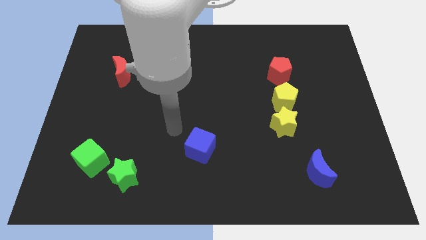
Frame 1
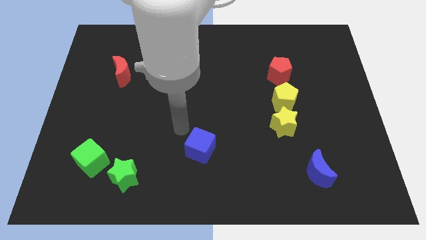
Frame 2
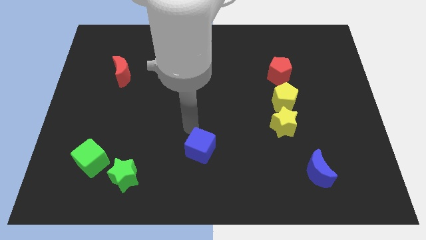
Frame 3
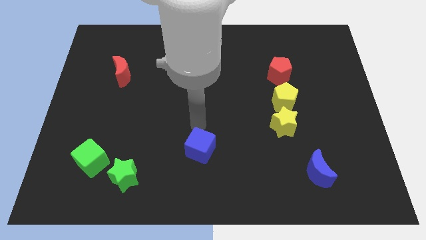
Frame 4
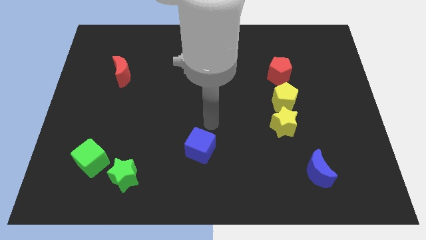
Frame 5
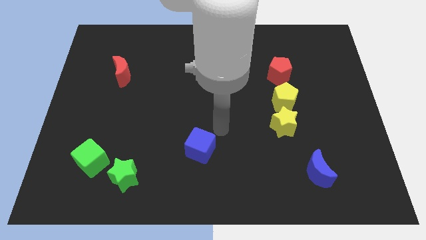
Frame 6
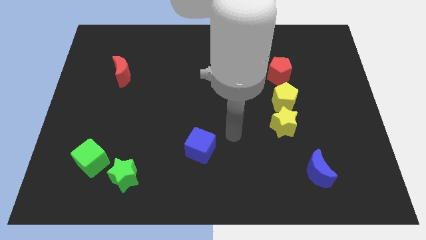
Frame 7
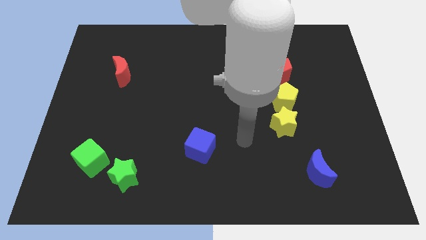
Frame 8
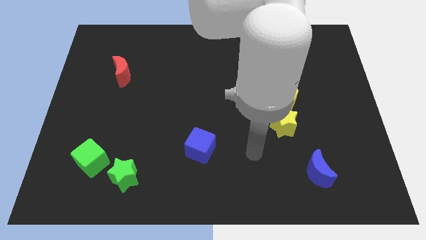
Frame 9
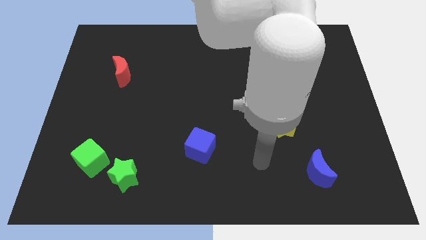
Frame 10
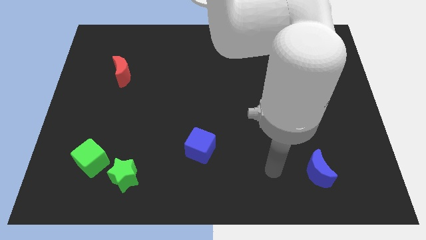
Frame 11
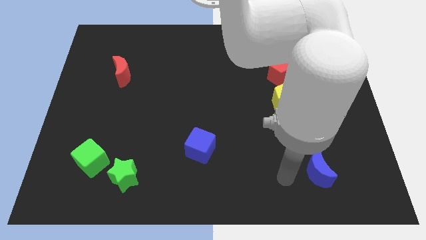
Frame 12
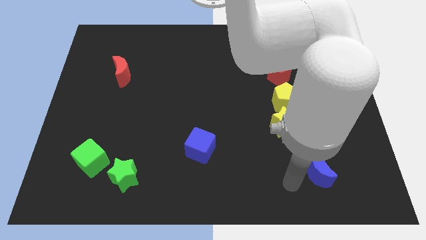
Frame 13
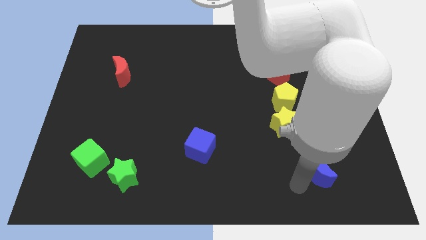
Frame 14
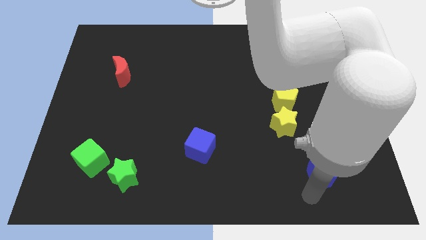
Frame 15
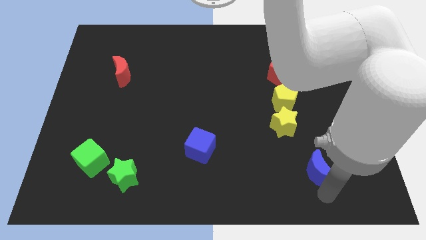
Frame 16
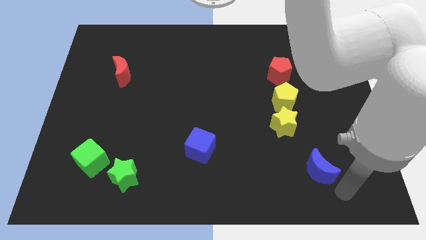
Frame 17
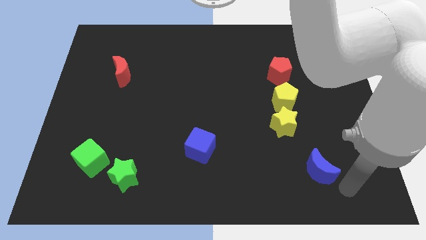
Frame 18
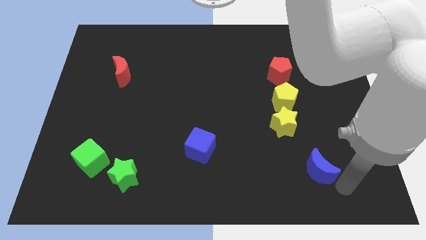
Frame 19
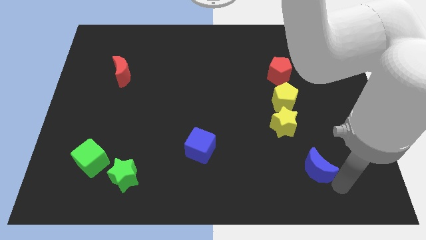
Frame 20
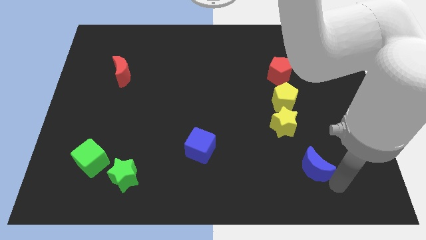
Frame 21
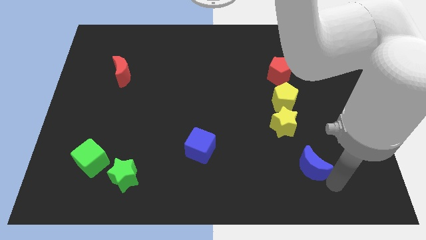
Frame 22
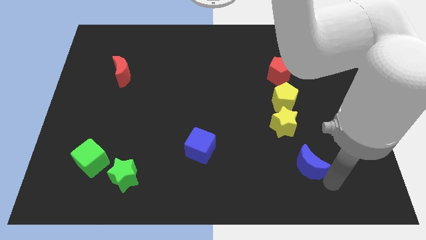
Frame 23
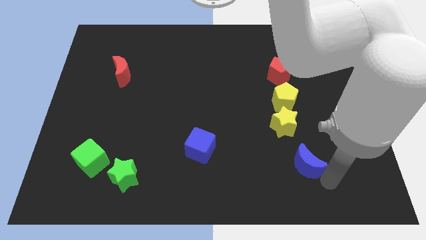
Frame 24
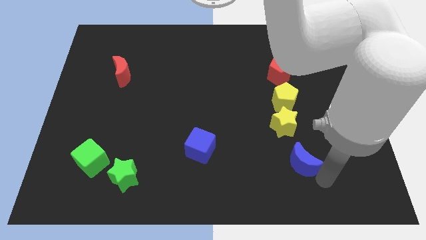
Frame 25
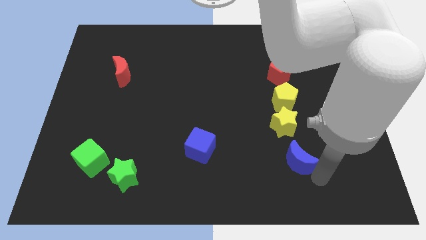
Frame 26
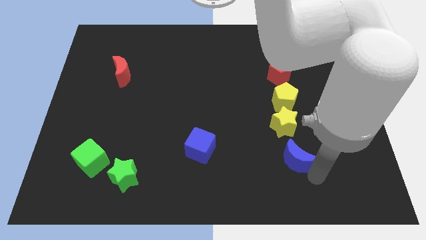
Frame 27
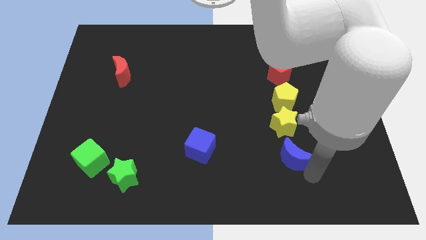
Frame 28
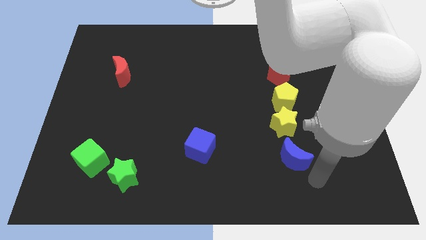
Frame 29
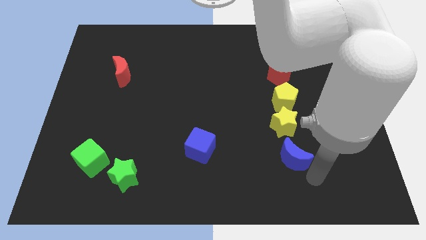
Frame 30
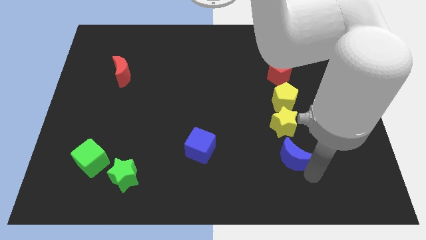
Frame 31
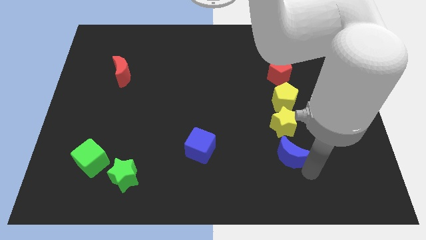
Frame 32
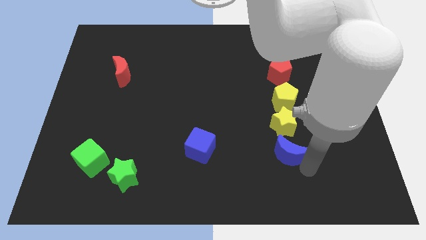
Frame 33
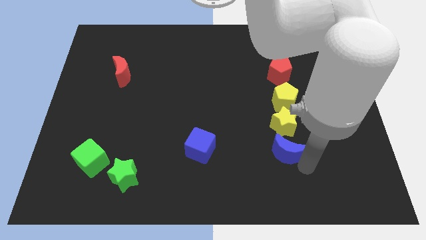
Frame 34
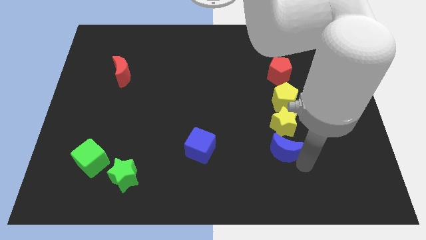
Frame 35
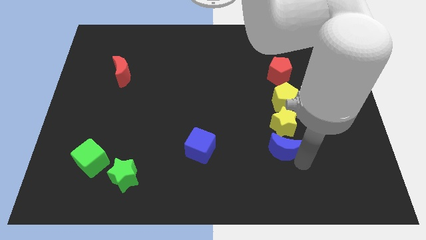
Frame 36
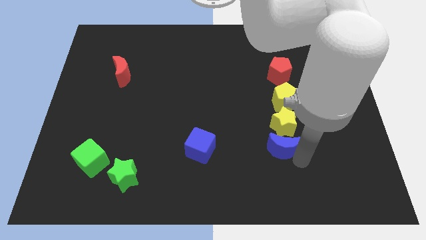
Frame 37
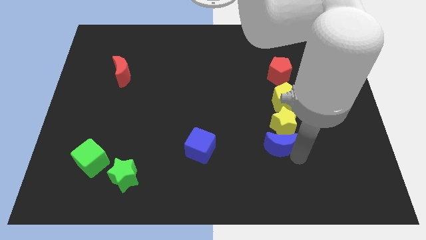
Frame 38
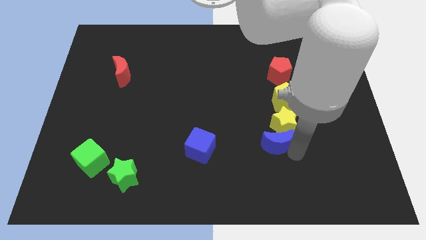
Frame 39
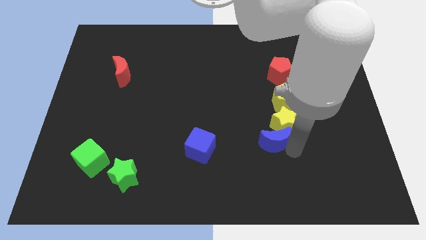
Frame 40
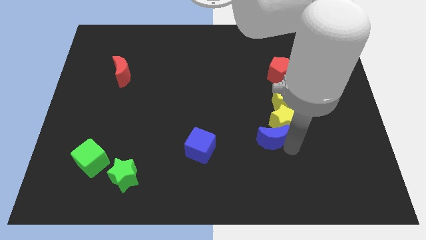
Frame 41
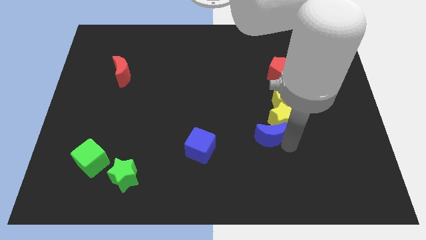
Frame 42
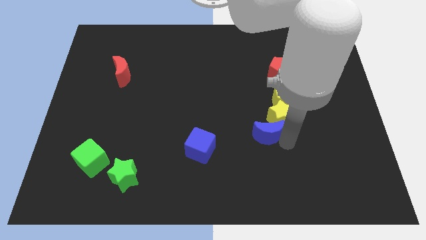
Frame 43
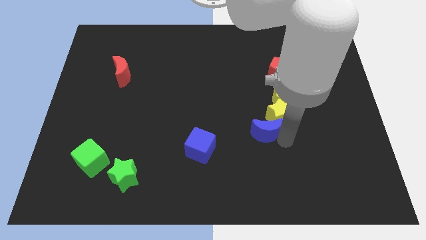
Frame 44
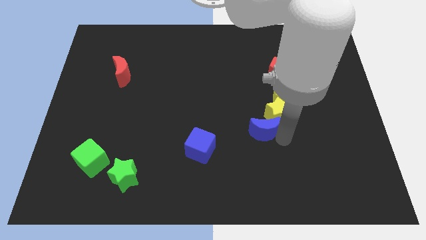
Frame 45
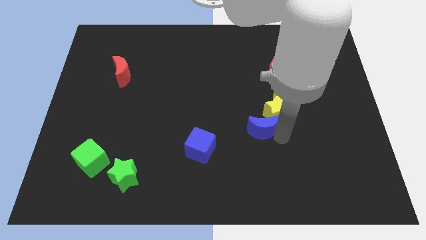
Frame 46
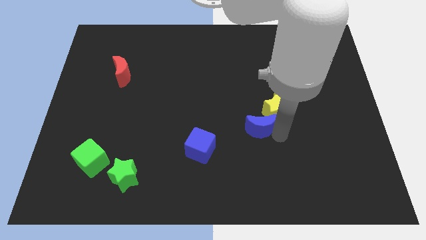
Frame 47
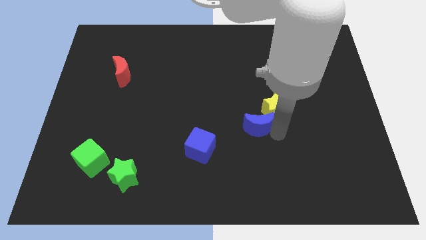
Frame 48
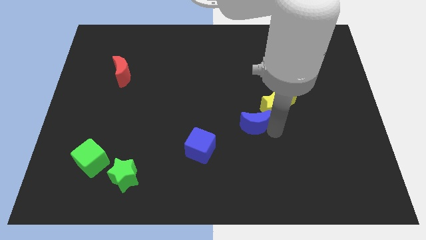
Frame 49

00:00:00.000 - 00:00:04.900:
slide the blue moon to the middle

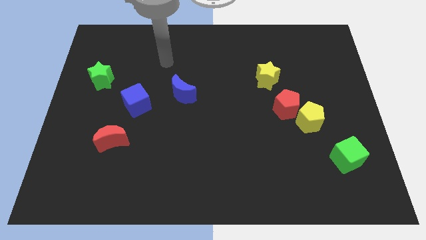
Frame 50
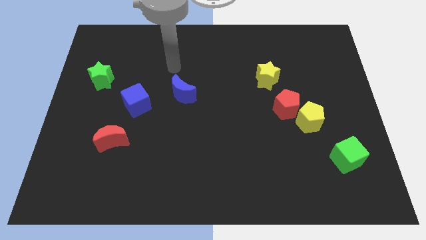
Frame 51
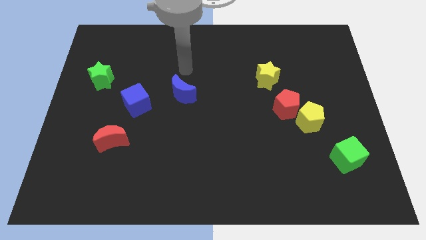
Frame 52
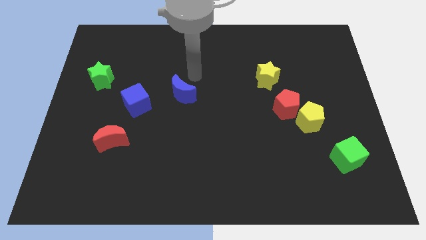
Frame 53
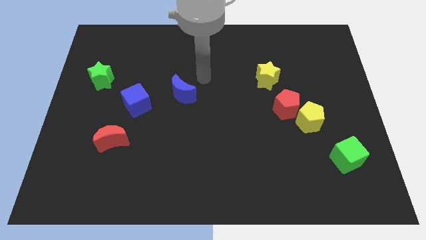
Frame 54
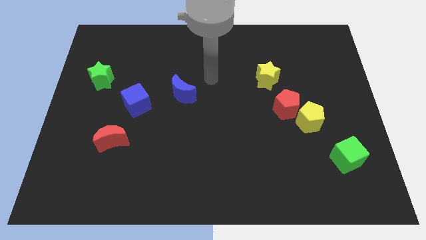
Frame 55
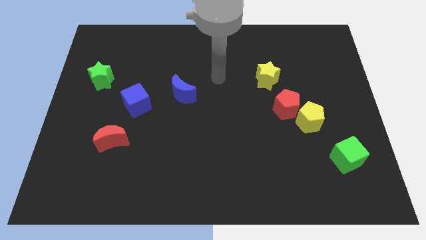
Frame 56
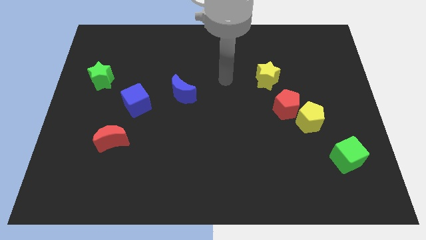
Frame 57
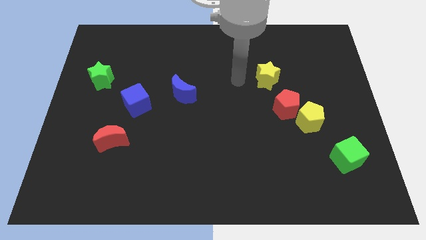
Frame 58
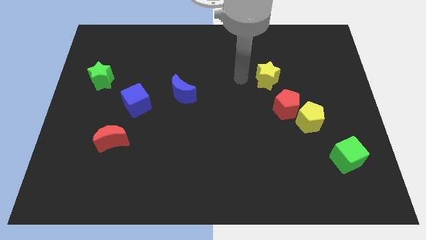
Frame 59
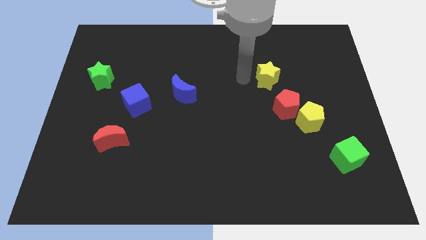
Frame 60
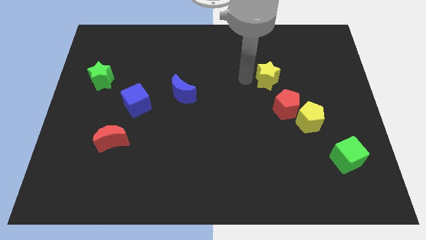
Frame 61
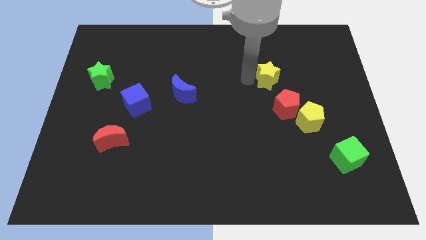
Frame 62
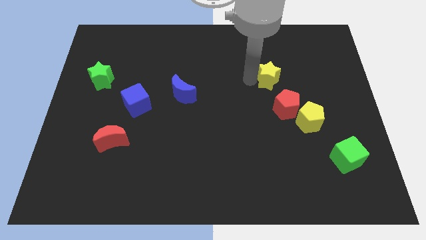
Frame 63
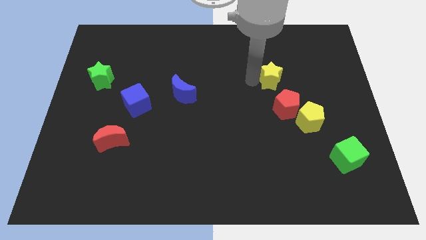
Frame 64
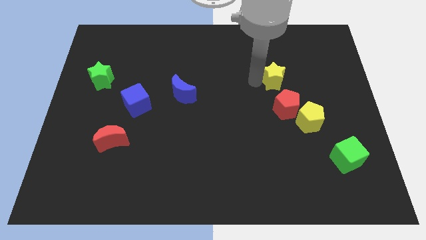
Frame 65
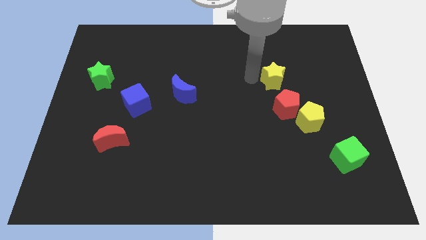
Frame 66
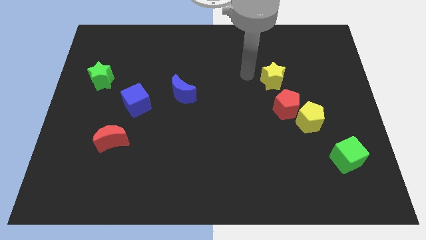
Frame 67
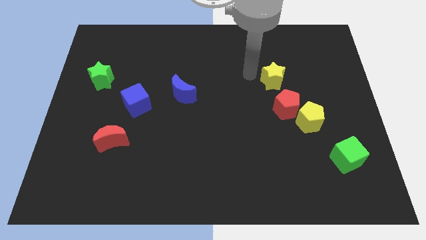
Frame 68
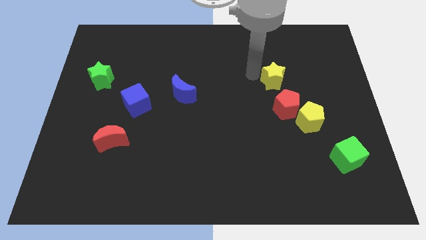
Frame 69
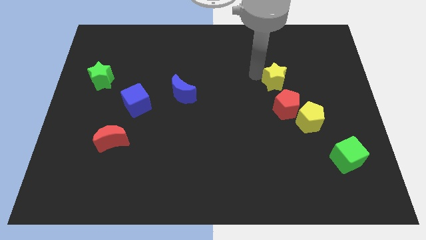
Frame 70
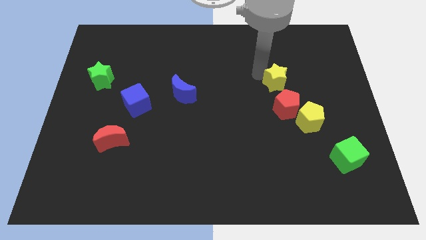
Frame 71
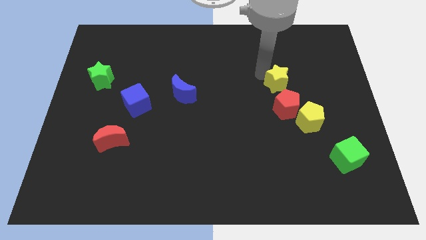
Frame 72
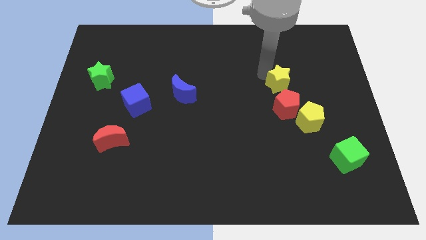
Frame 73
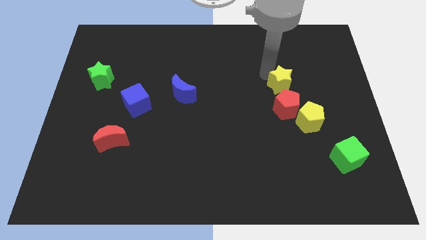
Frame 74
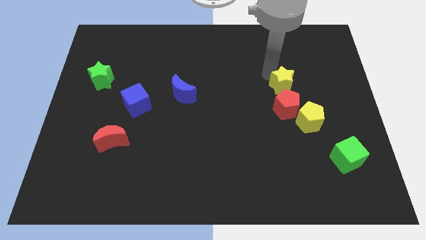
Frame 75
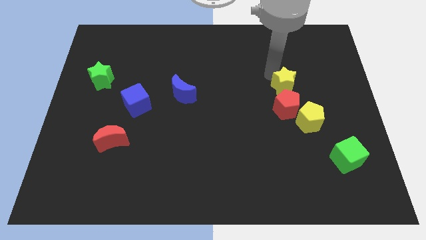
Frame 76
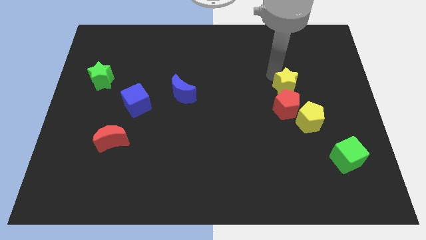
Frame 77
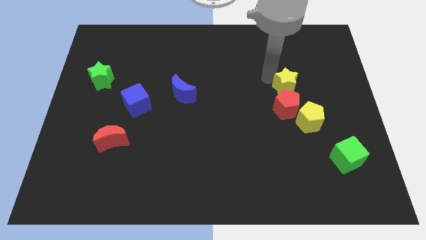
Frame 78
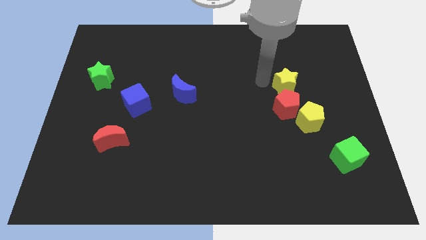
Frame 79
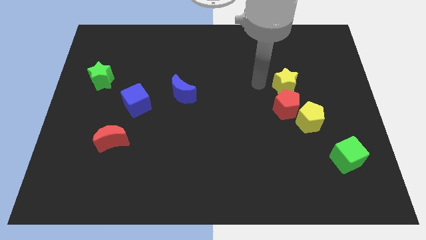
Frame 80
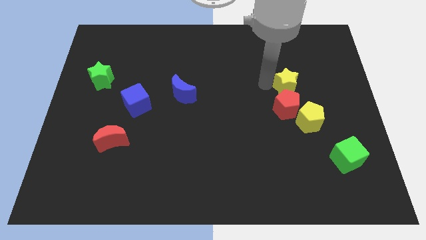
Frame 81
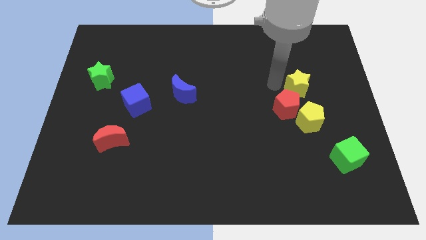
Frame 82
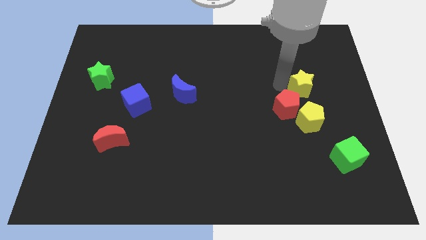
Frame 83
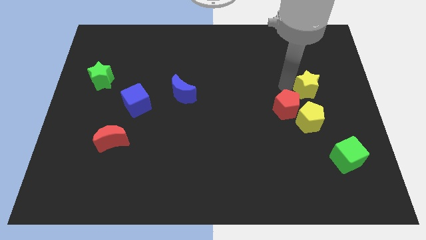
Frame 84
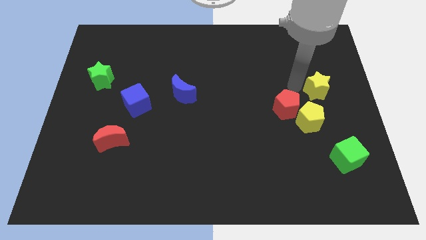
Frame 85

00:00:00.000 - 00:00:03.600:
put the yellow star to the right side of the board
